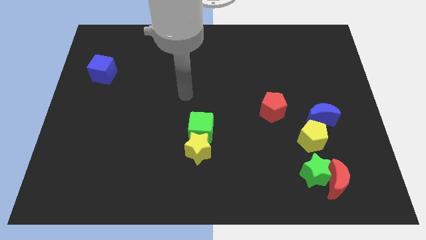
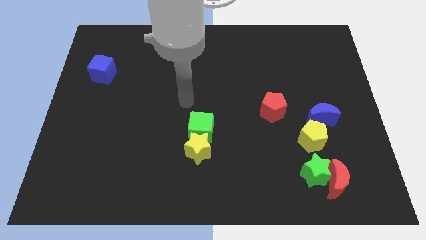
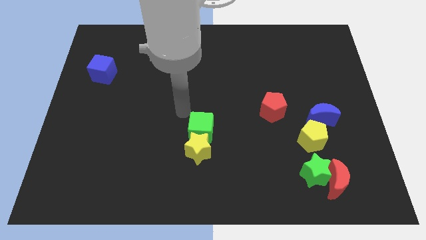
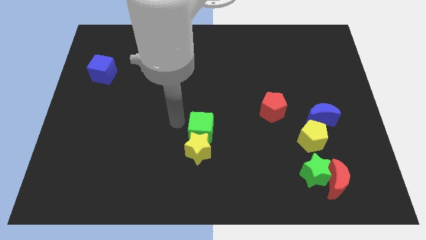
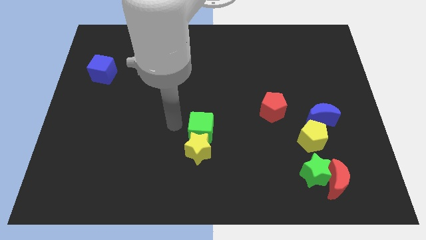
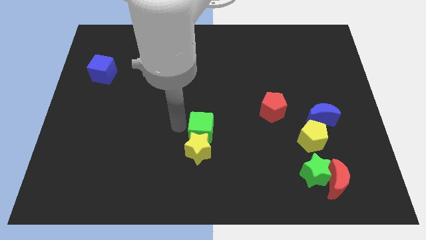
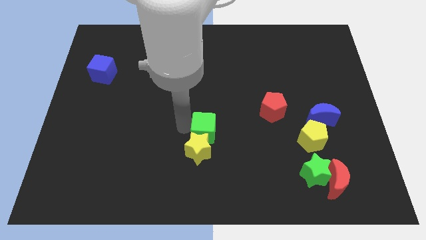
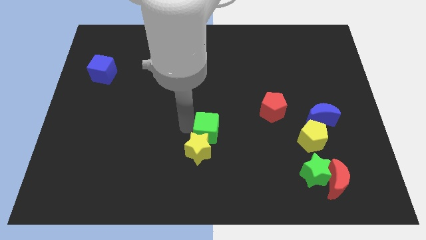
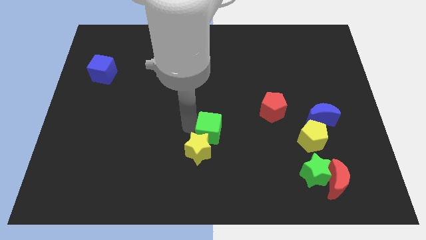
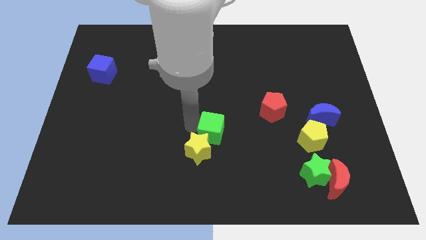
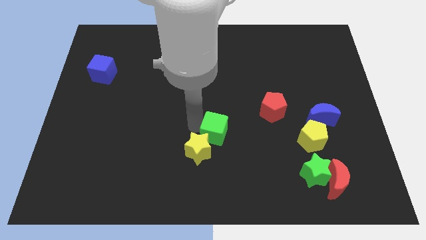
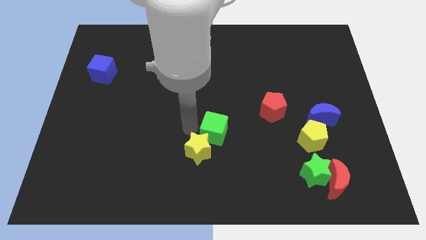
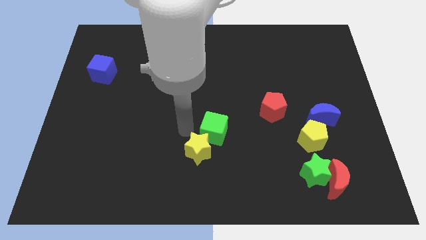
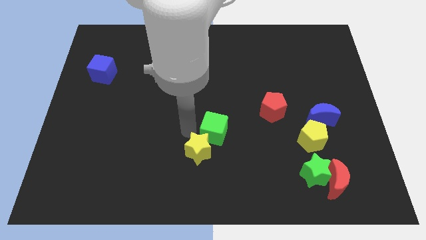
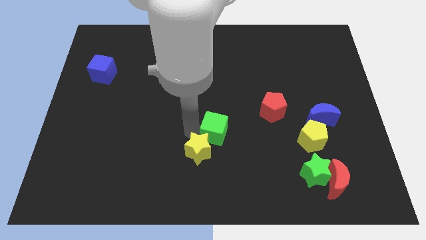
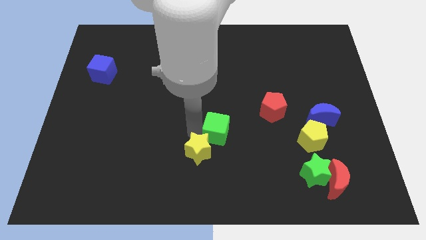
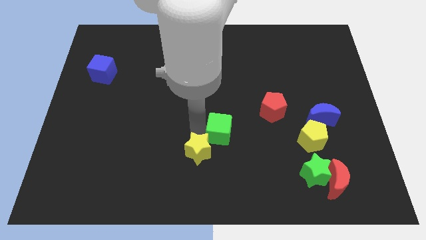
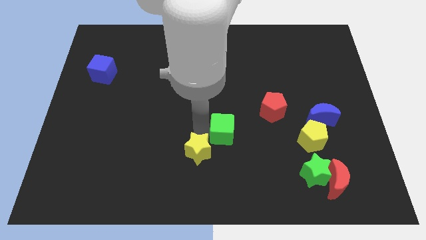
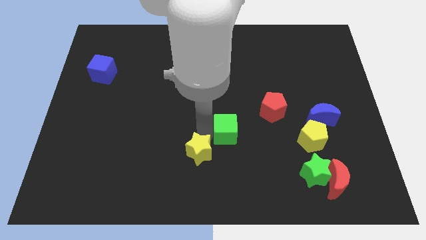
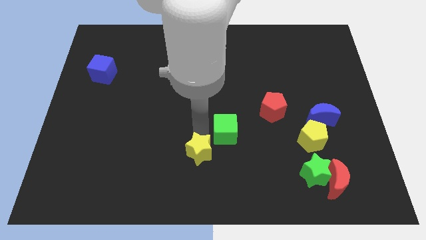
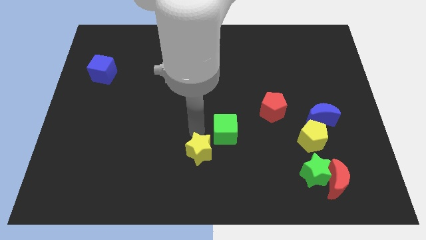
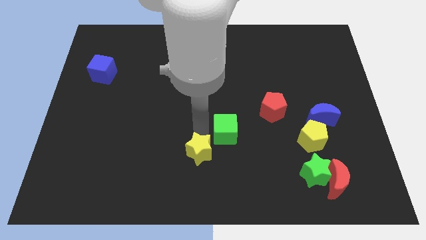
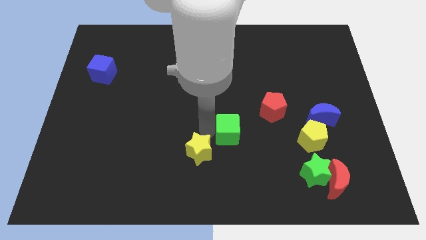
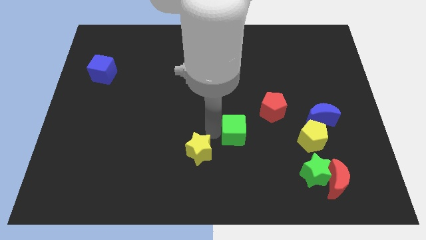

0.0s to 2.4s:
push the green cube a little right

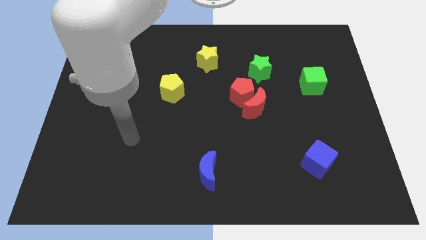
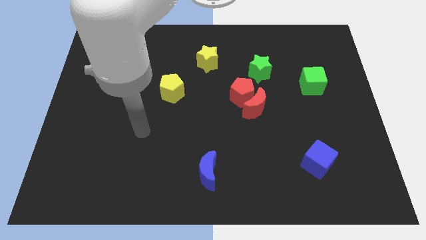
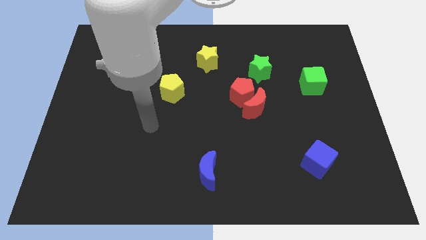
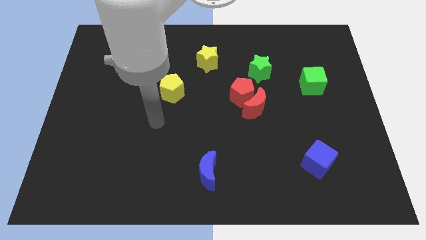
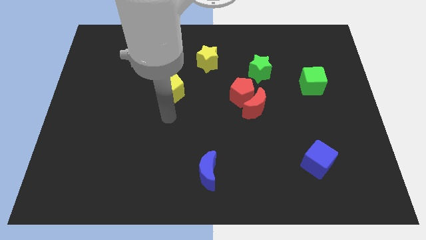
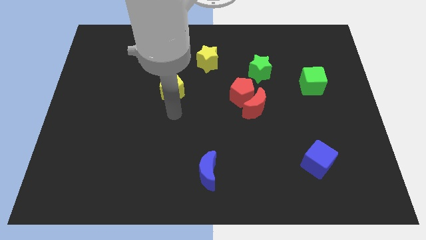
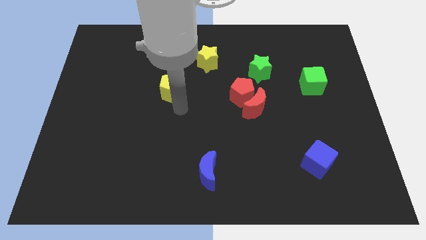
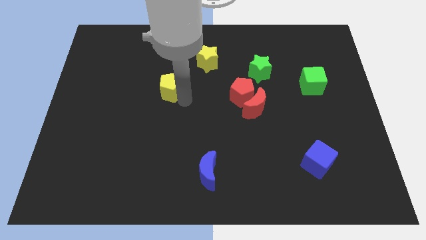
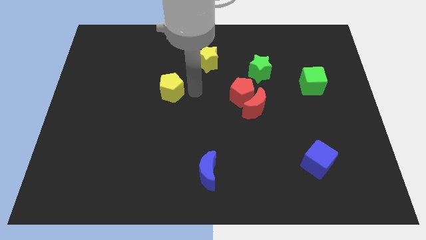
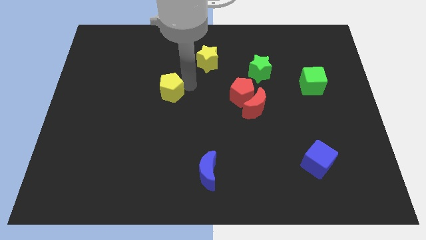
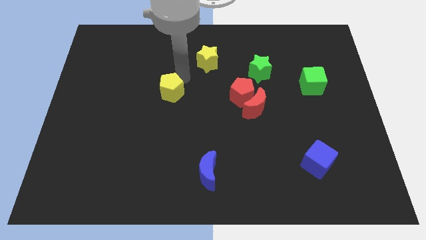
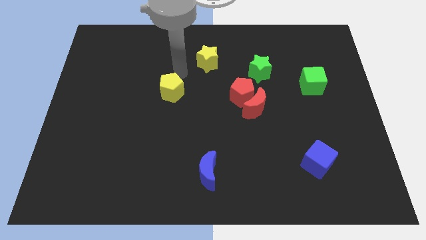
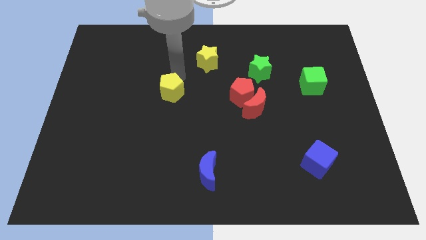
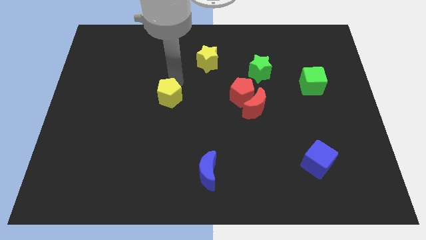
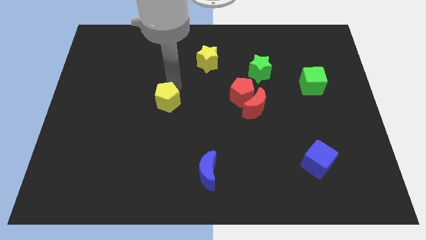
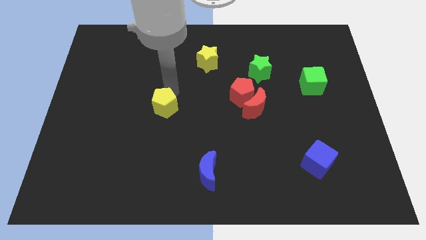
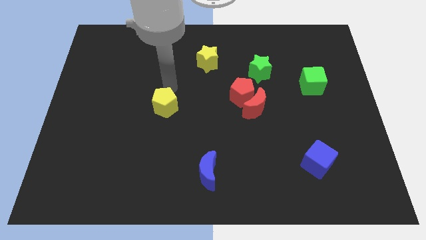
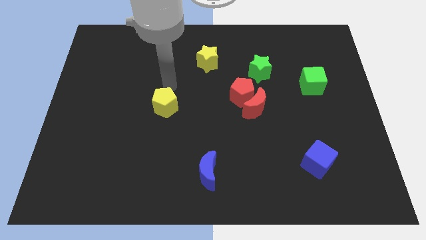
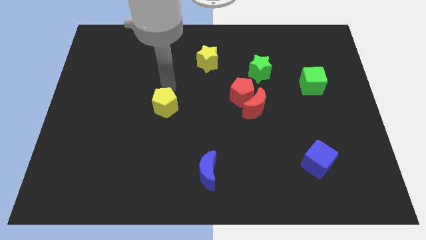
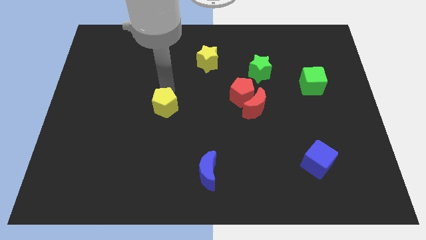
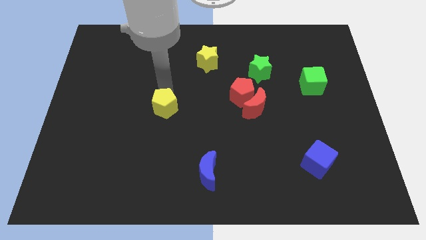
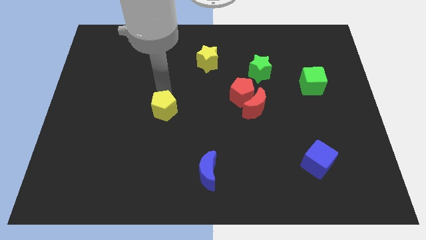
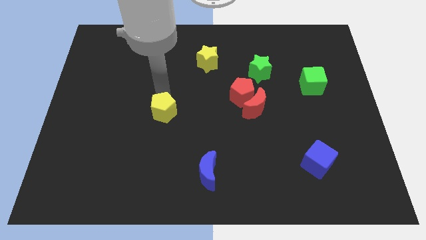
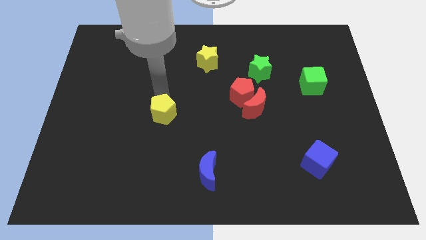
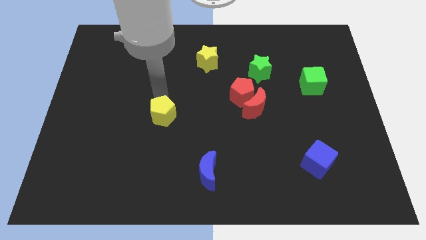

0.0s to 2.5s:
slightly move the yellow pentagon downwards

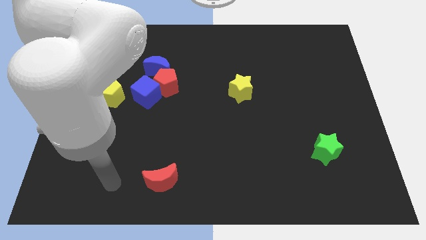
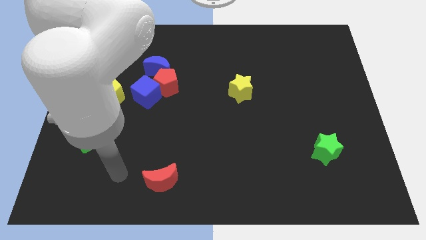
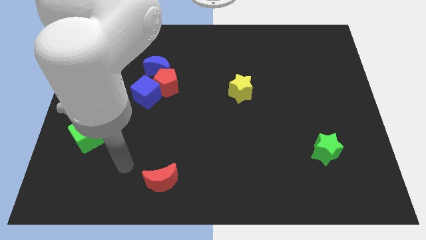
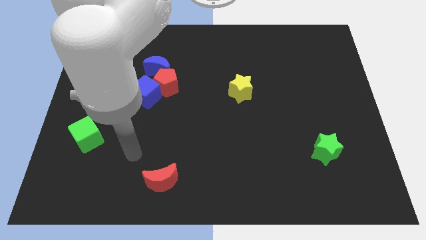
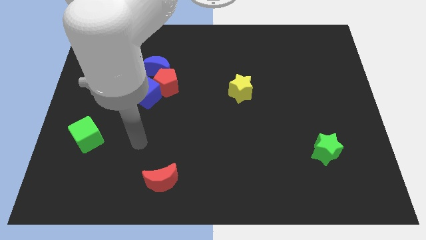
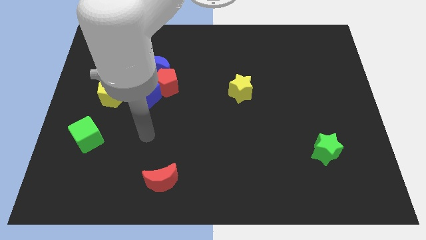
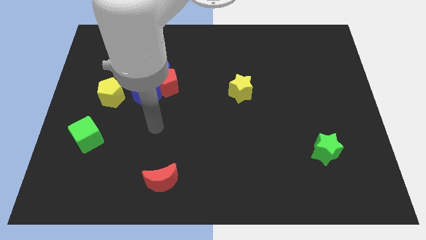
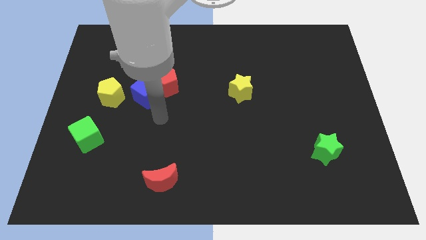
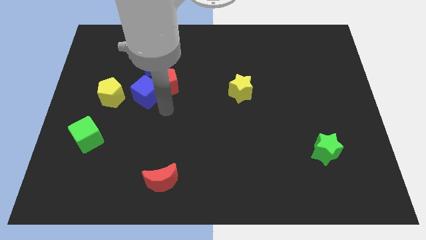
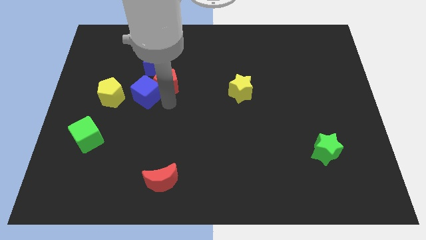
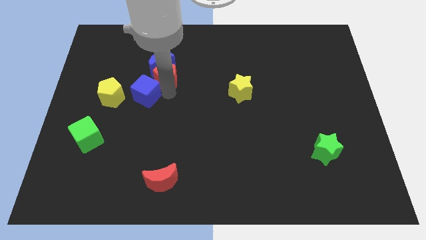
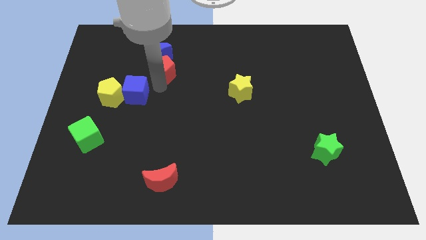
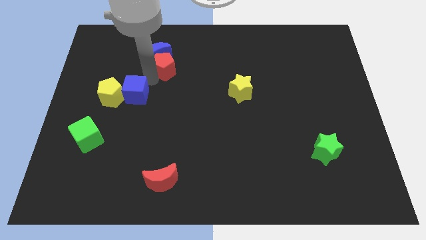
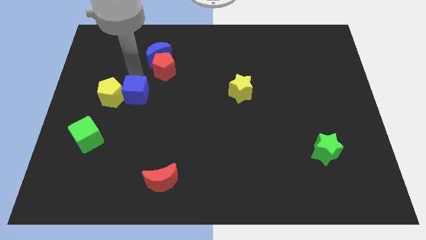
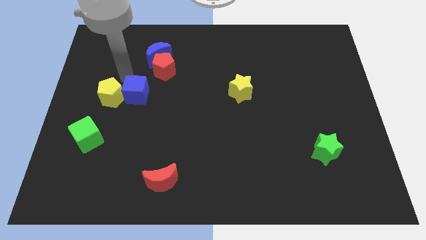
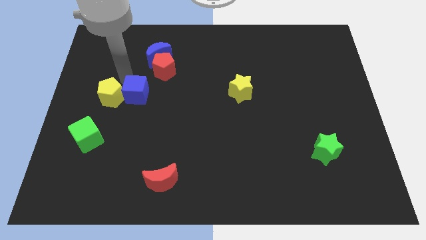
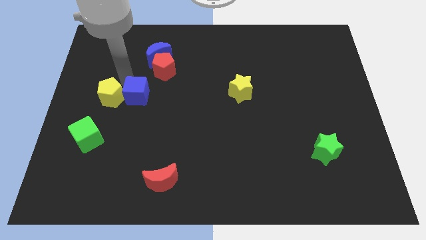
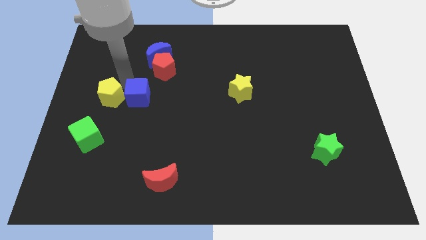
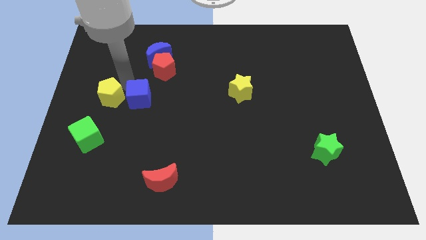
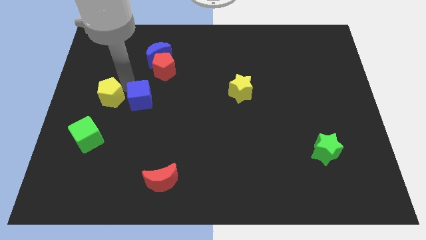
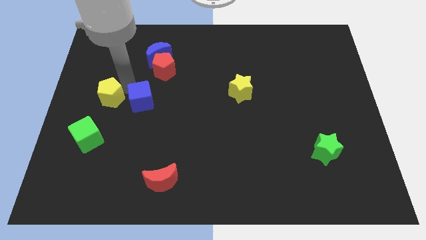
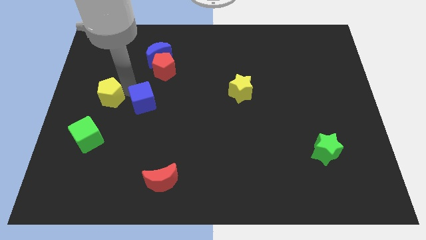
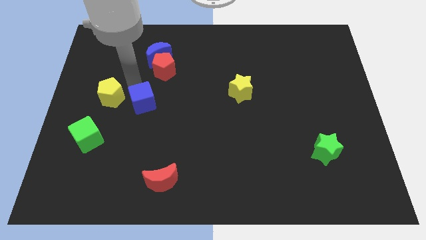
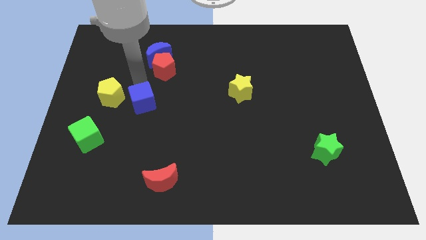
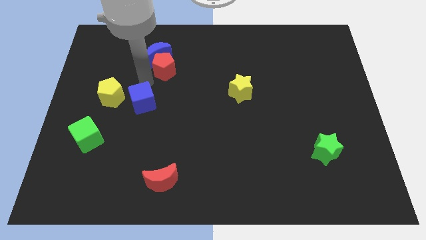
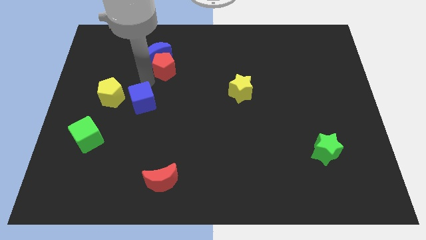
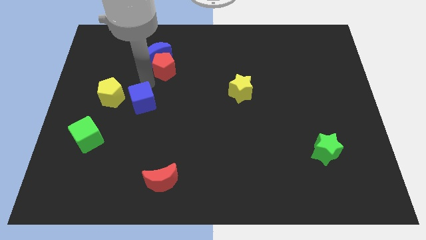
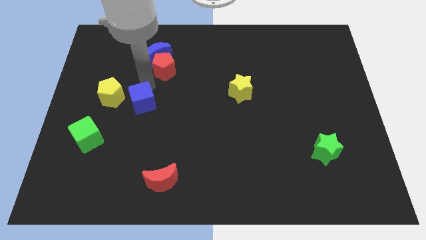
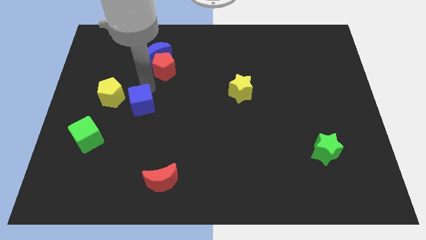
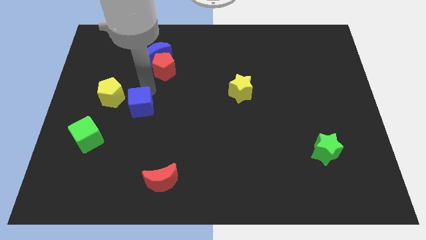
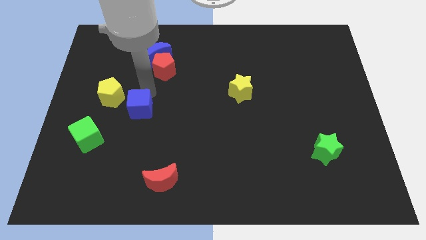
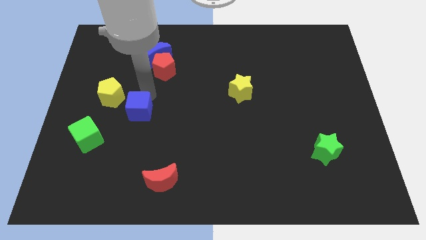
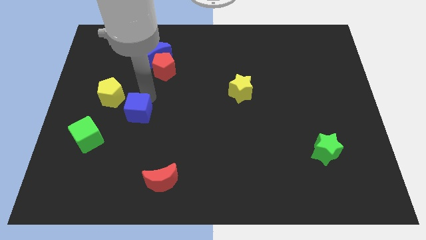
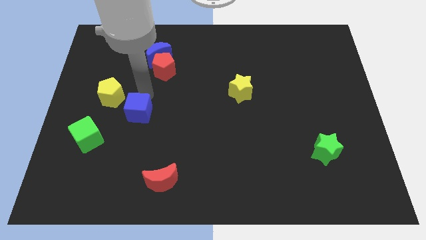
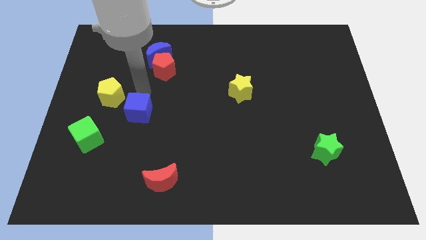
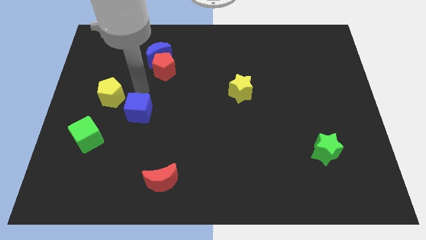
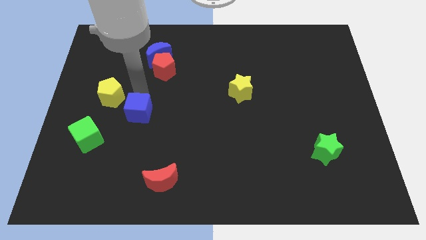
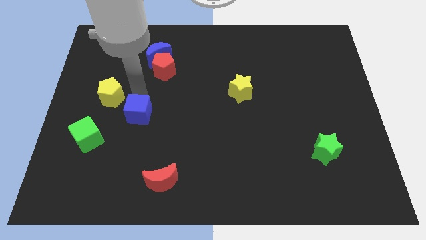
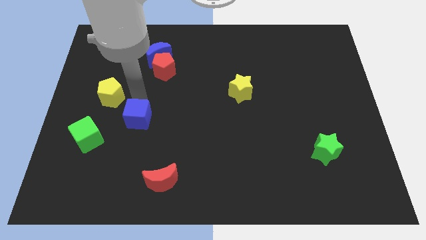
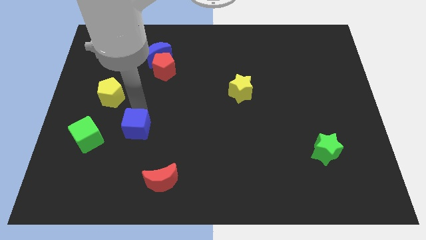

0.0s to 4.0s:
slide the blue cube downwards a little bit
